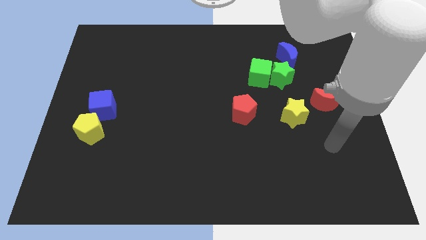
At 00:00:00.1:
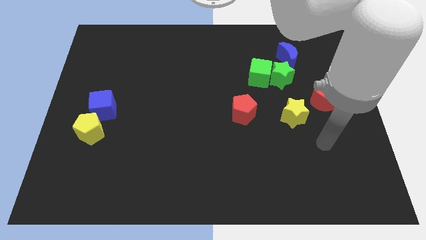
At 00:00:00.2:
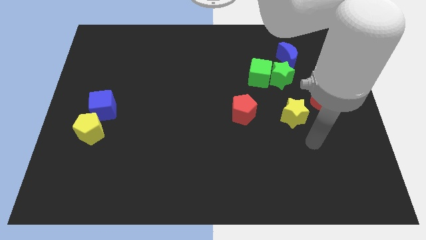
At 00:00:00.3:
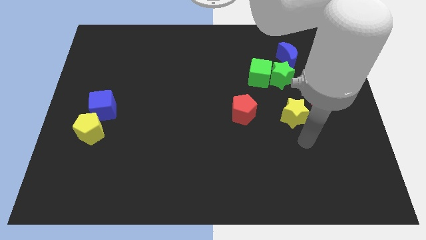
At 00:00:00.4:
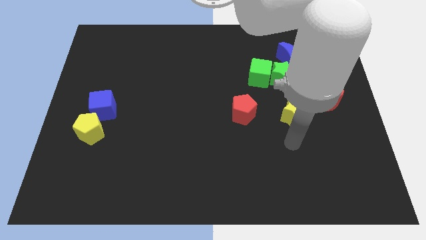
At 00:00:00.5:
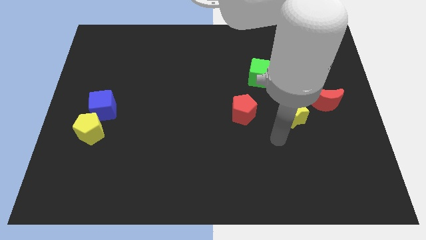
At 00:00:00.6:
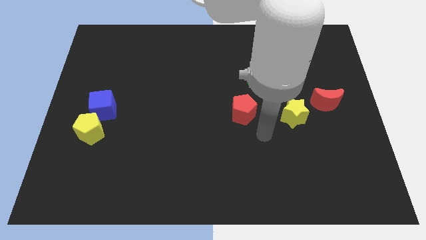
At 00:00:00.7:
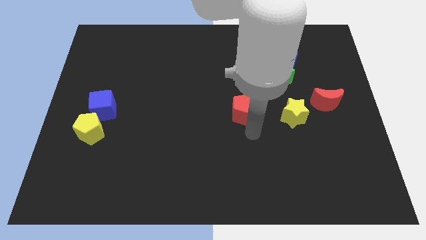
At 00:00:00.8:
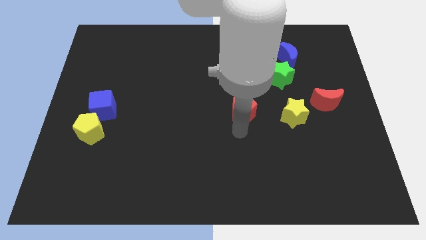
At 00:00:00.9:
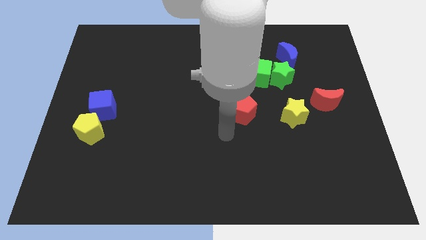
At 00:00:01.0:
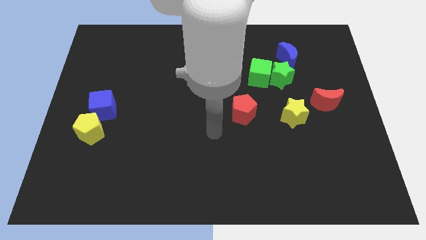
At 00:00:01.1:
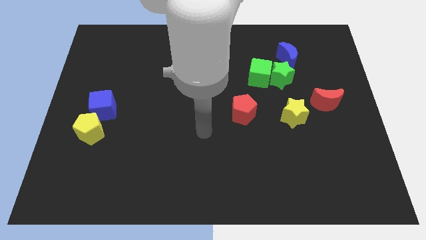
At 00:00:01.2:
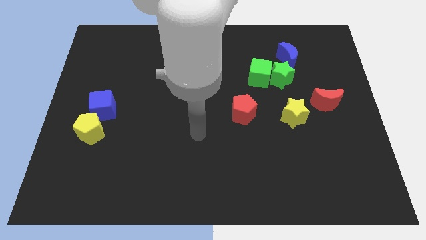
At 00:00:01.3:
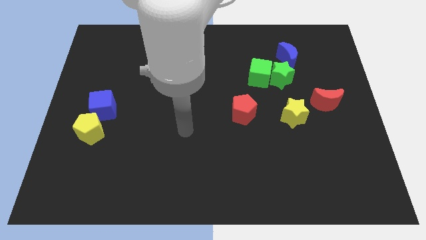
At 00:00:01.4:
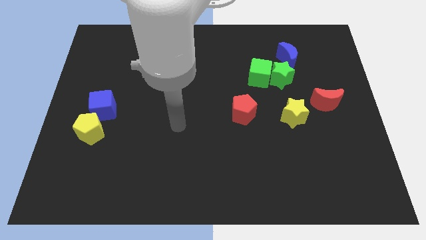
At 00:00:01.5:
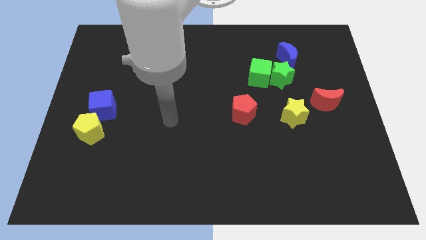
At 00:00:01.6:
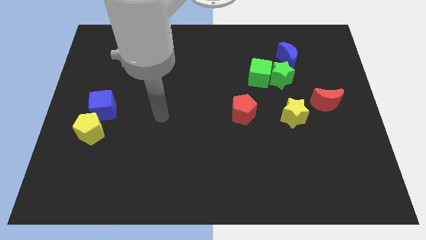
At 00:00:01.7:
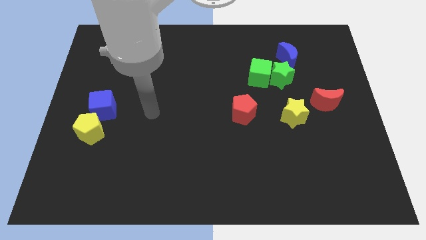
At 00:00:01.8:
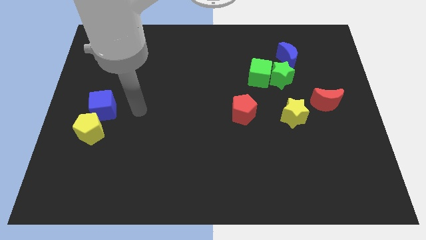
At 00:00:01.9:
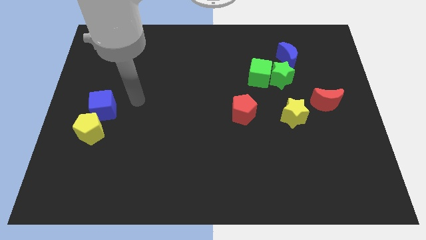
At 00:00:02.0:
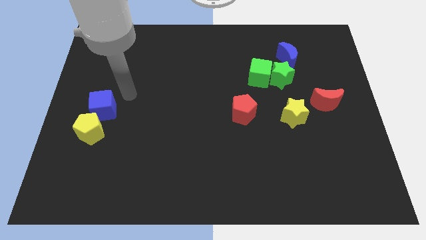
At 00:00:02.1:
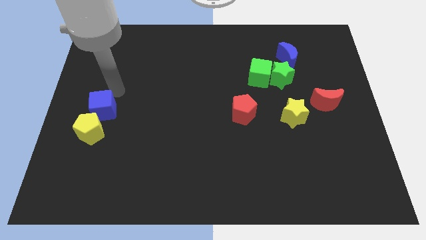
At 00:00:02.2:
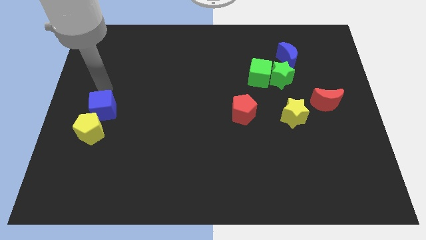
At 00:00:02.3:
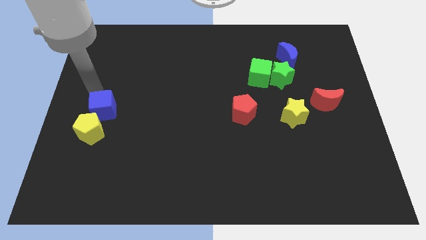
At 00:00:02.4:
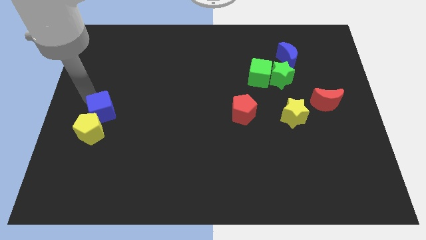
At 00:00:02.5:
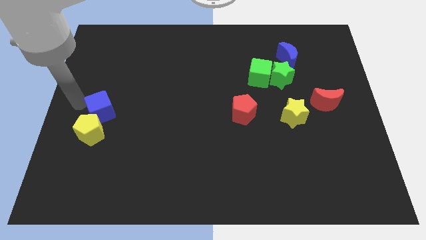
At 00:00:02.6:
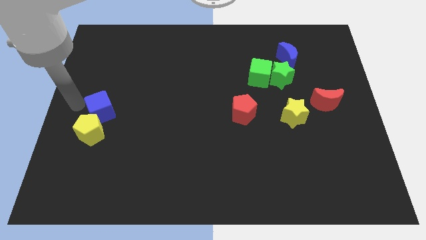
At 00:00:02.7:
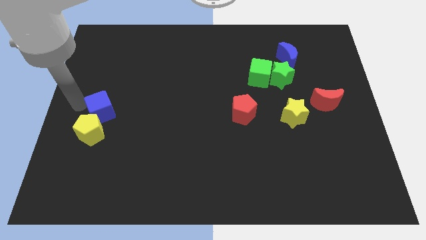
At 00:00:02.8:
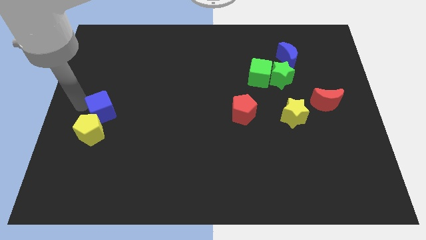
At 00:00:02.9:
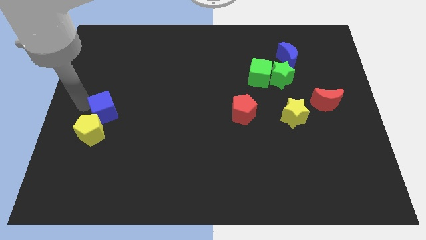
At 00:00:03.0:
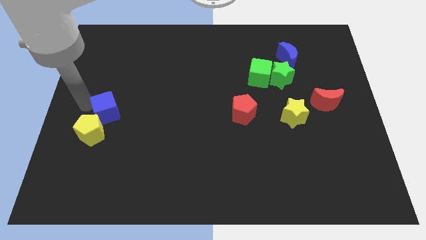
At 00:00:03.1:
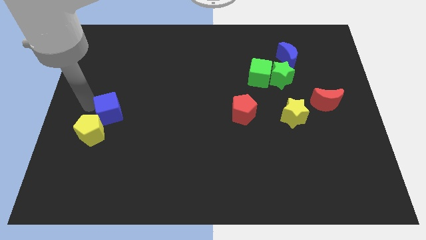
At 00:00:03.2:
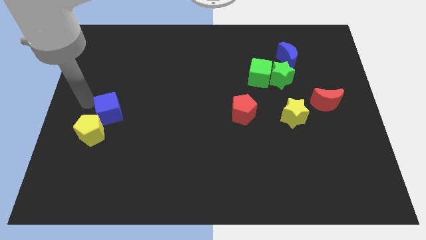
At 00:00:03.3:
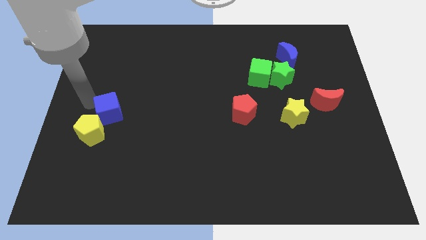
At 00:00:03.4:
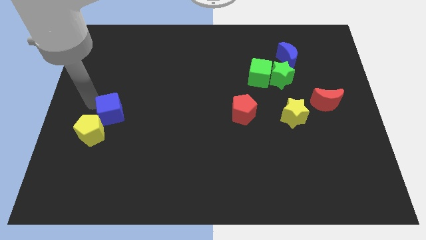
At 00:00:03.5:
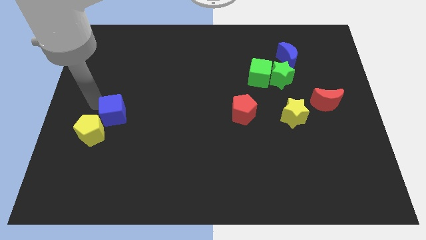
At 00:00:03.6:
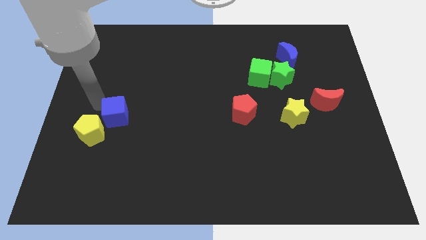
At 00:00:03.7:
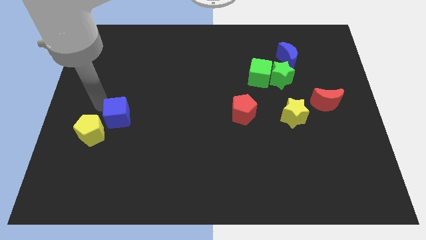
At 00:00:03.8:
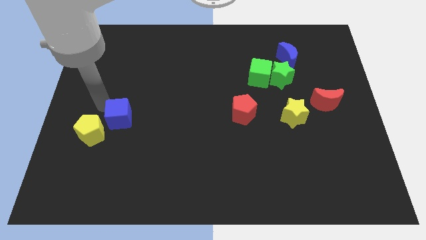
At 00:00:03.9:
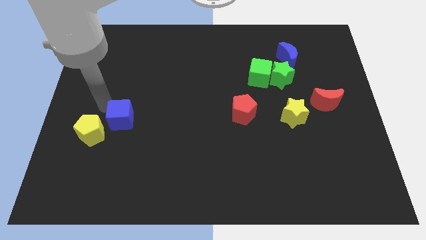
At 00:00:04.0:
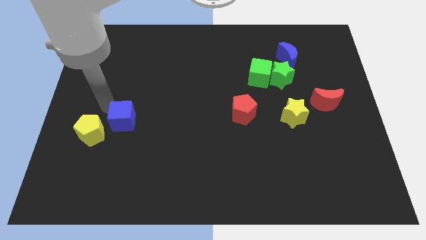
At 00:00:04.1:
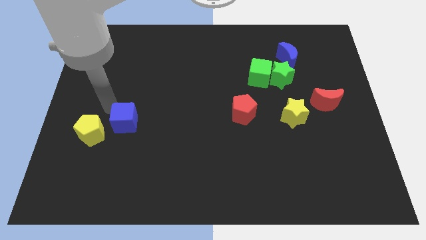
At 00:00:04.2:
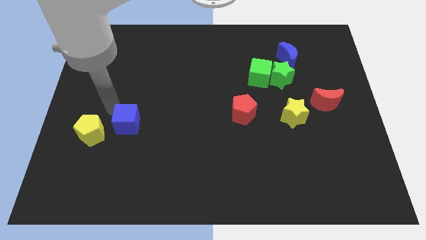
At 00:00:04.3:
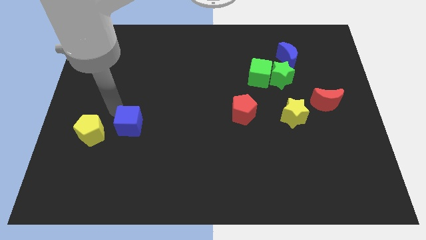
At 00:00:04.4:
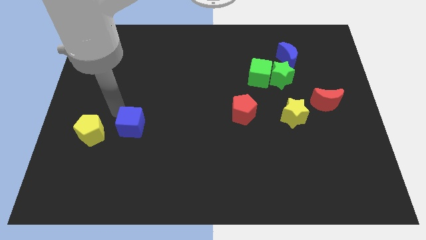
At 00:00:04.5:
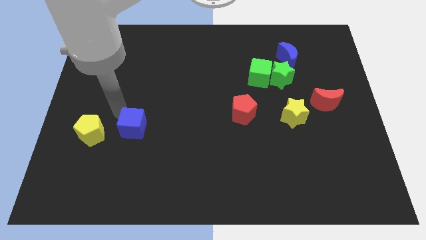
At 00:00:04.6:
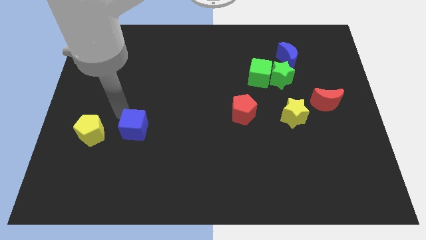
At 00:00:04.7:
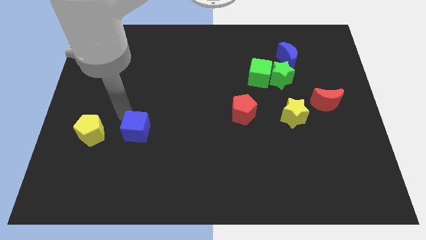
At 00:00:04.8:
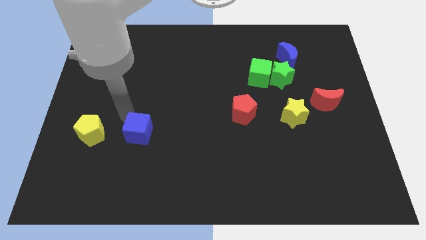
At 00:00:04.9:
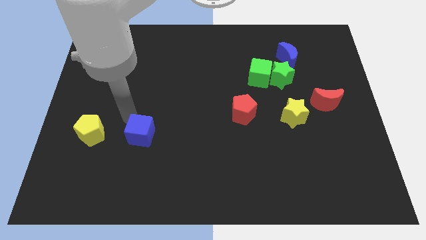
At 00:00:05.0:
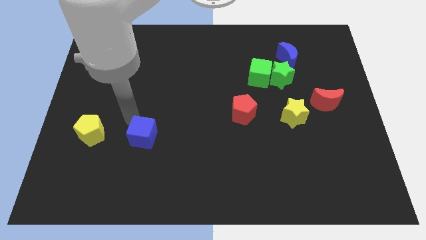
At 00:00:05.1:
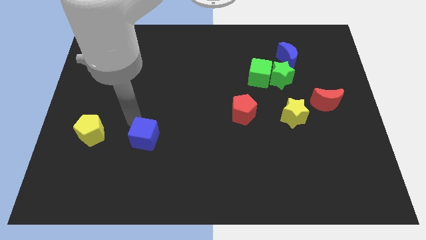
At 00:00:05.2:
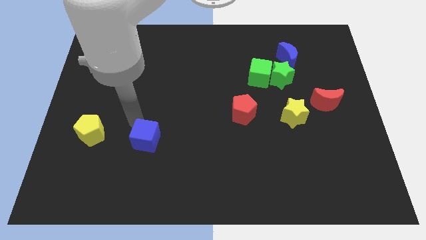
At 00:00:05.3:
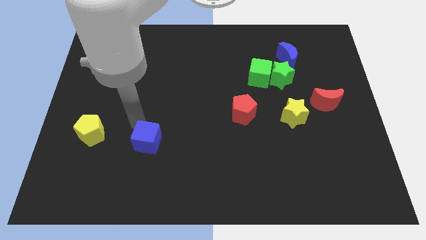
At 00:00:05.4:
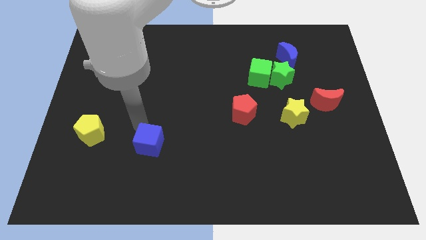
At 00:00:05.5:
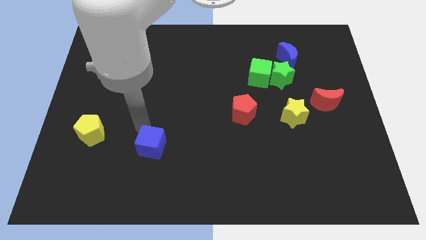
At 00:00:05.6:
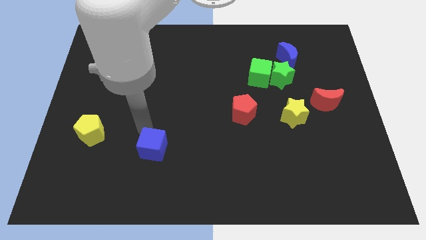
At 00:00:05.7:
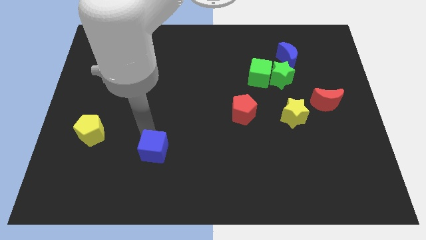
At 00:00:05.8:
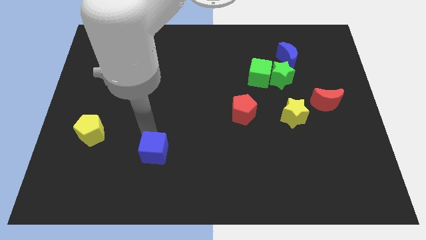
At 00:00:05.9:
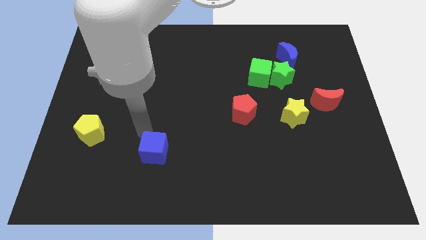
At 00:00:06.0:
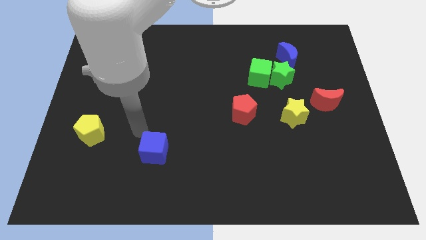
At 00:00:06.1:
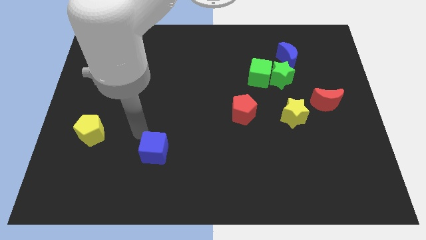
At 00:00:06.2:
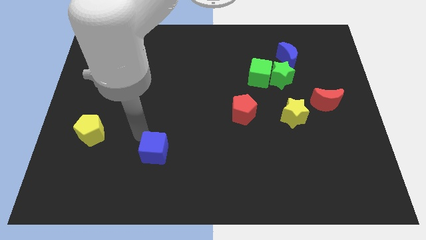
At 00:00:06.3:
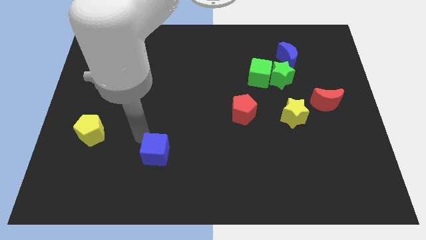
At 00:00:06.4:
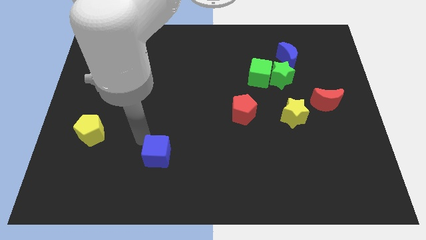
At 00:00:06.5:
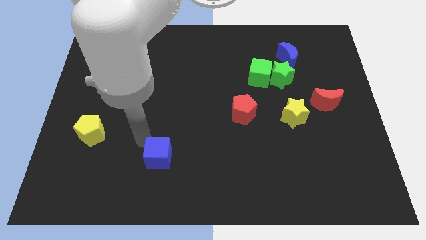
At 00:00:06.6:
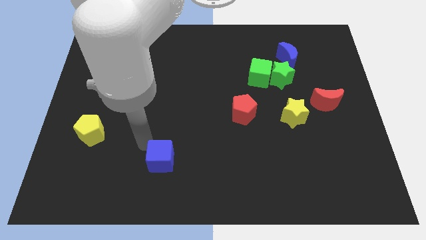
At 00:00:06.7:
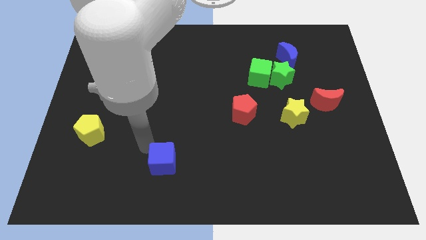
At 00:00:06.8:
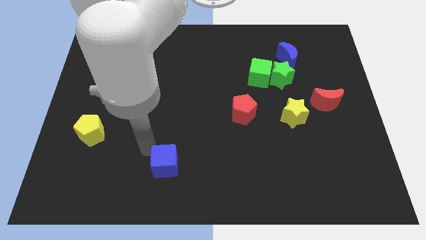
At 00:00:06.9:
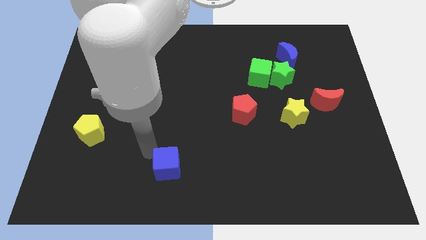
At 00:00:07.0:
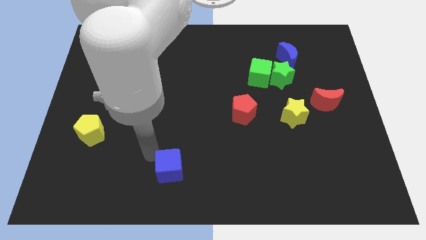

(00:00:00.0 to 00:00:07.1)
push the blue cube to the bottom
